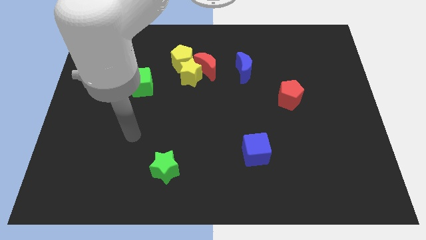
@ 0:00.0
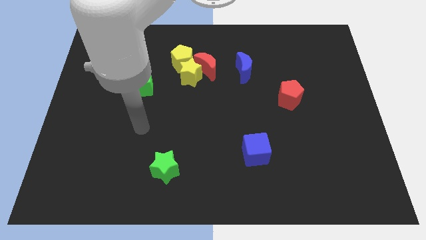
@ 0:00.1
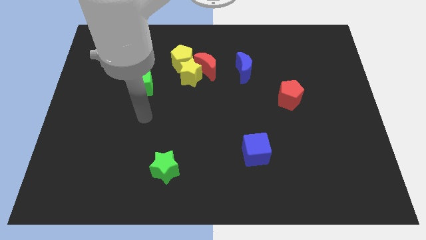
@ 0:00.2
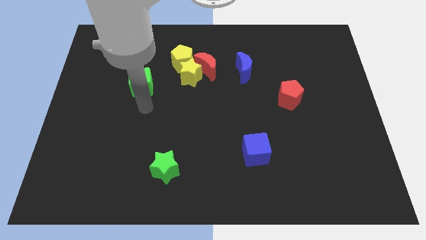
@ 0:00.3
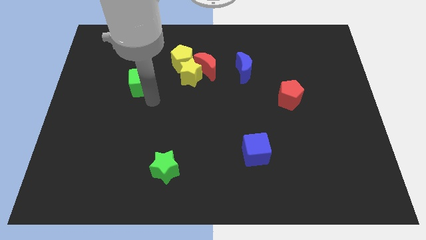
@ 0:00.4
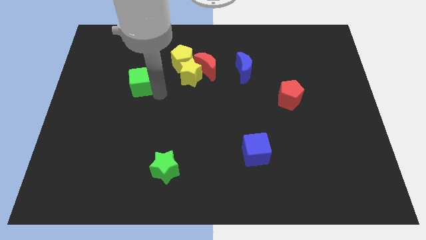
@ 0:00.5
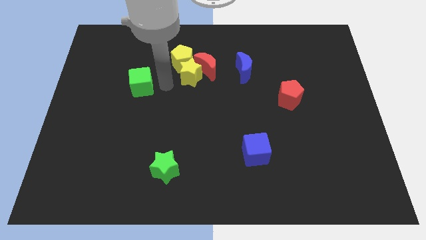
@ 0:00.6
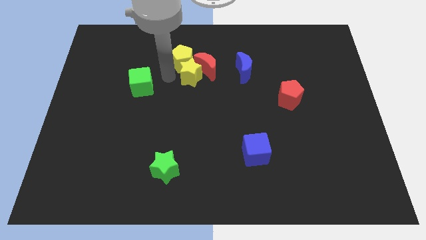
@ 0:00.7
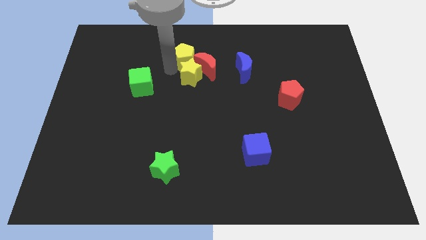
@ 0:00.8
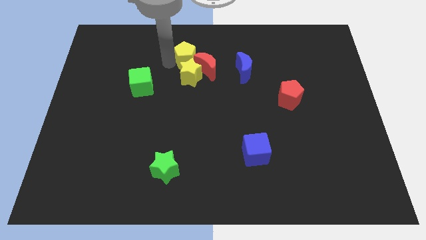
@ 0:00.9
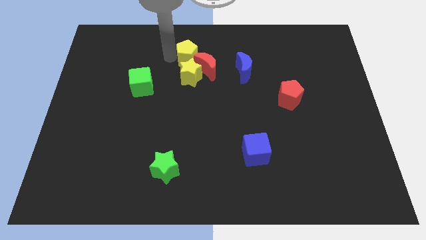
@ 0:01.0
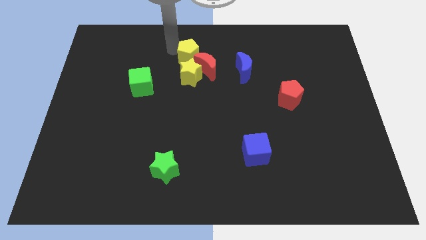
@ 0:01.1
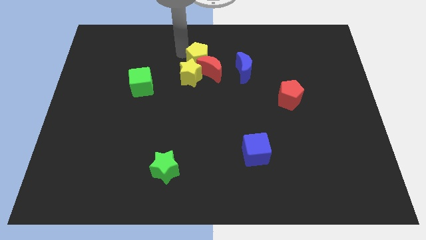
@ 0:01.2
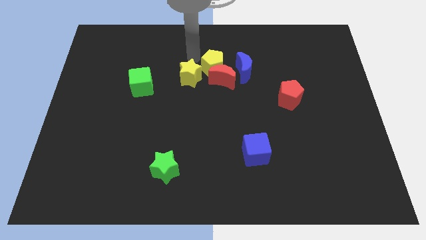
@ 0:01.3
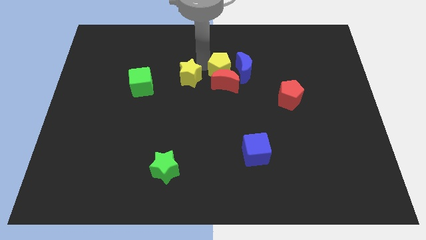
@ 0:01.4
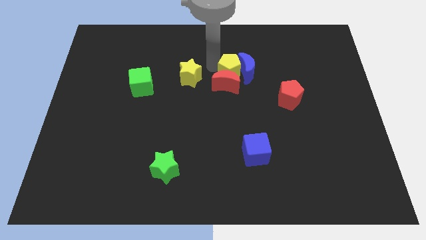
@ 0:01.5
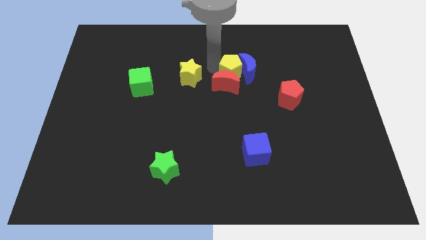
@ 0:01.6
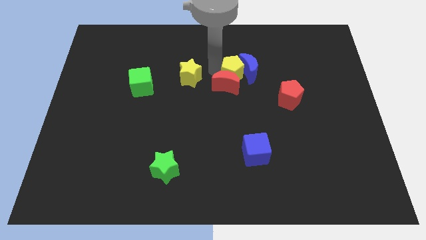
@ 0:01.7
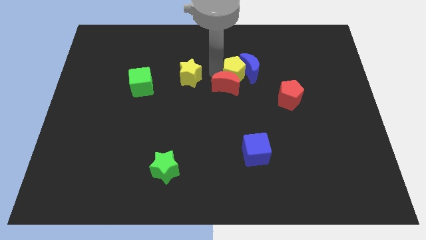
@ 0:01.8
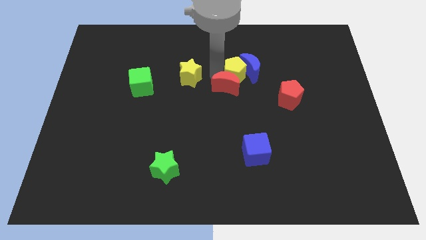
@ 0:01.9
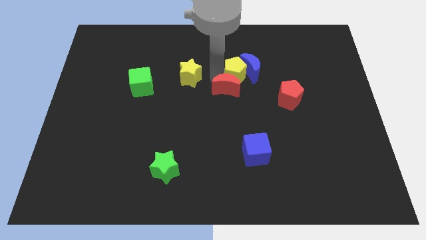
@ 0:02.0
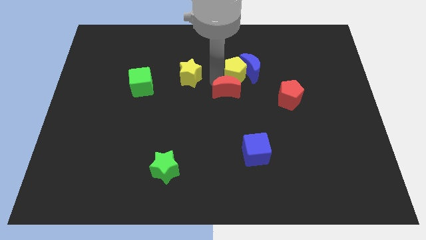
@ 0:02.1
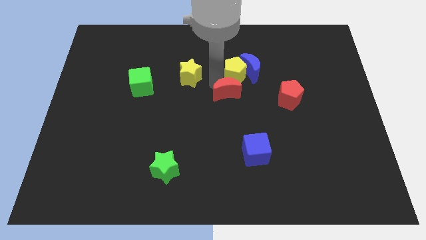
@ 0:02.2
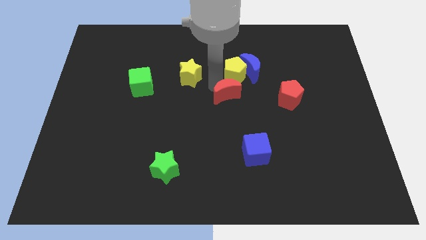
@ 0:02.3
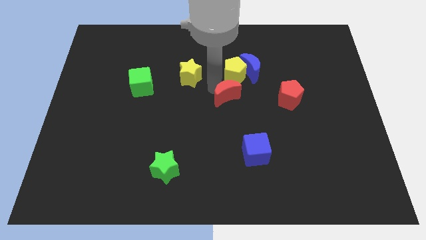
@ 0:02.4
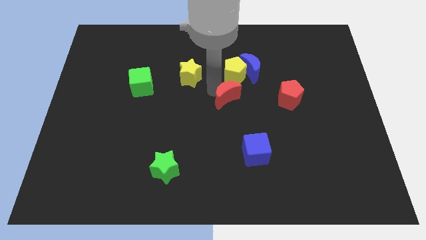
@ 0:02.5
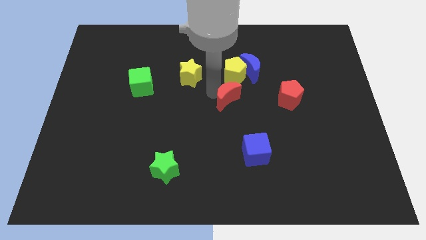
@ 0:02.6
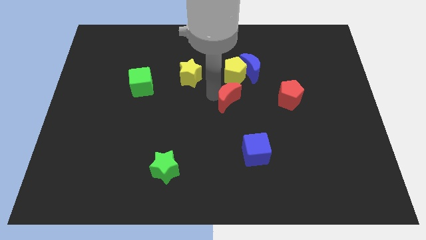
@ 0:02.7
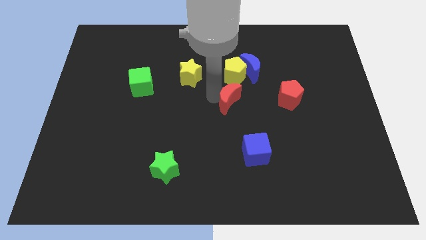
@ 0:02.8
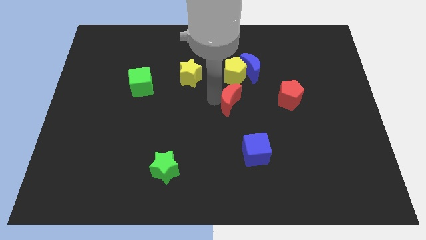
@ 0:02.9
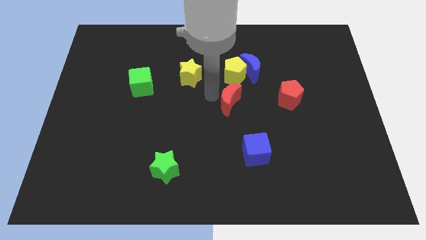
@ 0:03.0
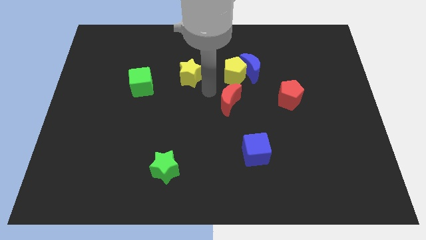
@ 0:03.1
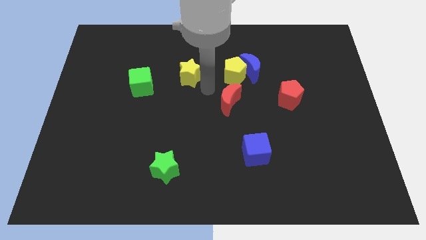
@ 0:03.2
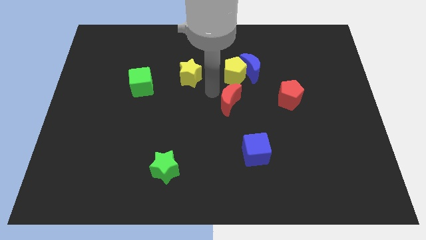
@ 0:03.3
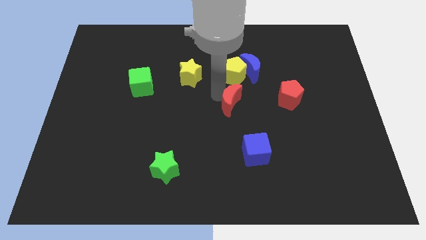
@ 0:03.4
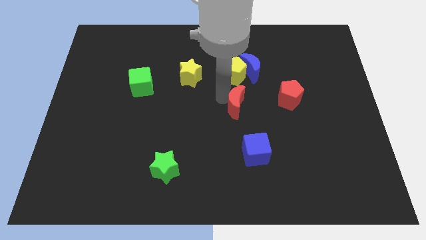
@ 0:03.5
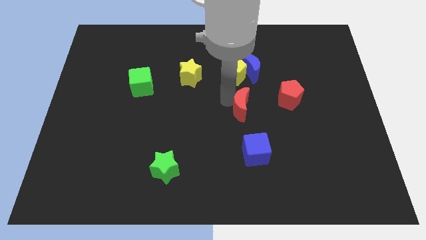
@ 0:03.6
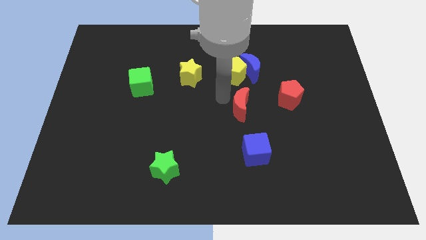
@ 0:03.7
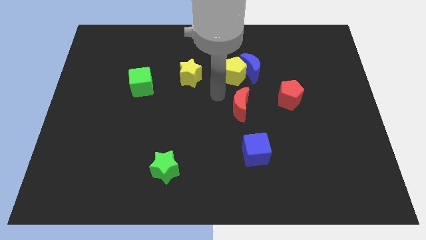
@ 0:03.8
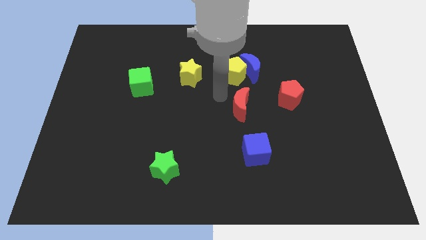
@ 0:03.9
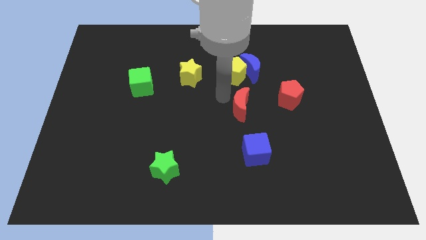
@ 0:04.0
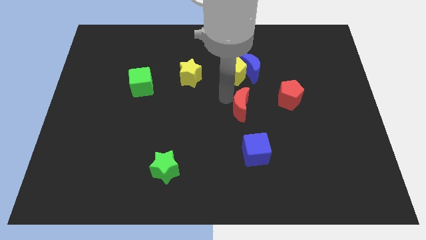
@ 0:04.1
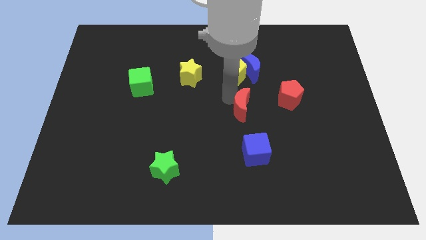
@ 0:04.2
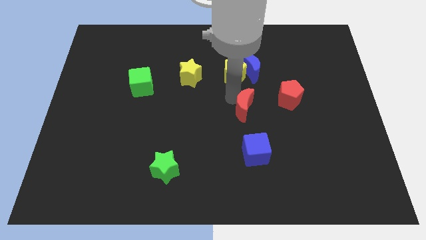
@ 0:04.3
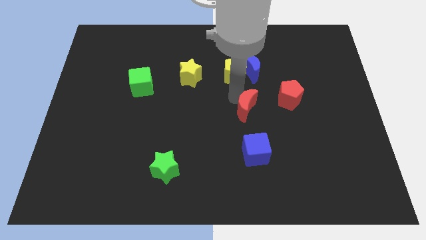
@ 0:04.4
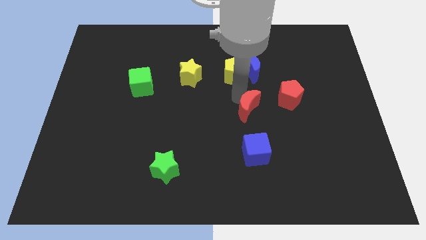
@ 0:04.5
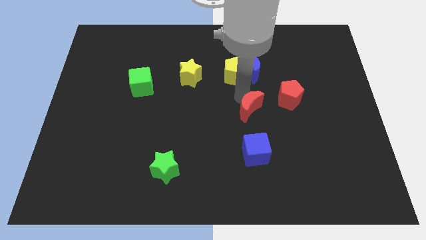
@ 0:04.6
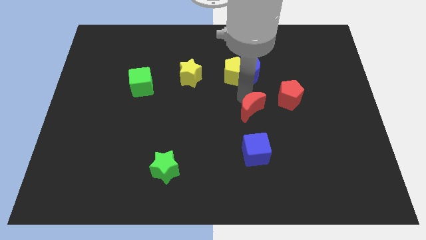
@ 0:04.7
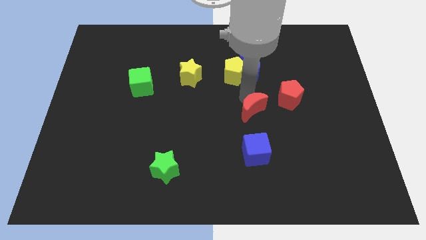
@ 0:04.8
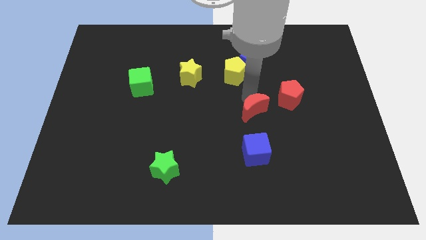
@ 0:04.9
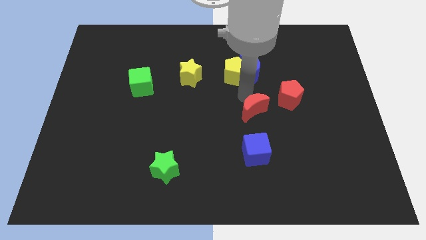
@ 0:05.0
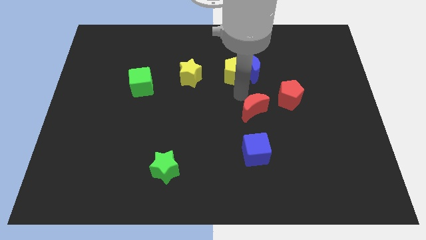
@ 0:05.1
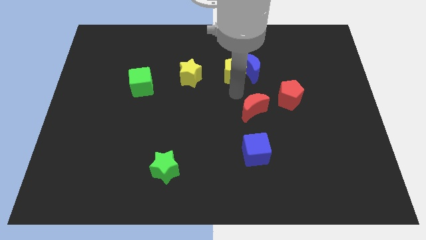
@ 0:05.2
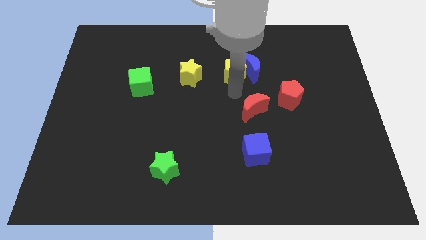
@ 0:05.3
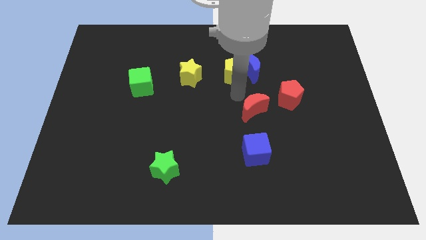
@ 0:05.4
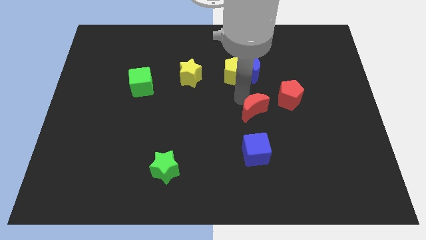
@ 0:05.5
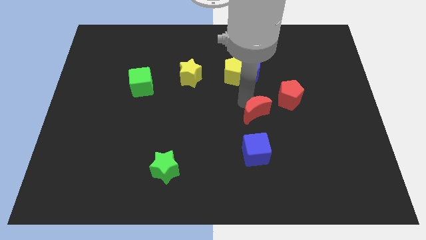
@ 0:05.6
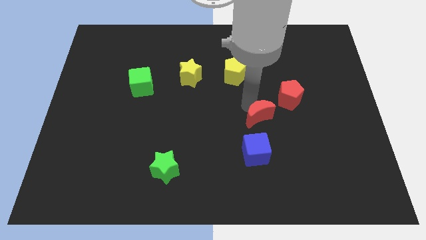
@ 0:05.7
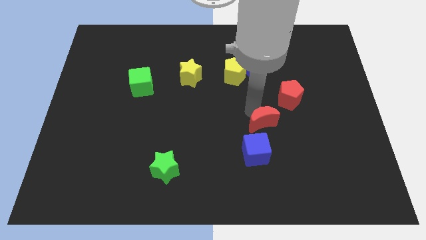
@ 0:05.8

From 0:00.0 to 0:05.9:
slide the red moon down and right diagonally

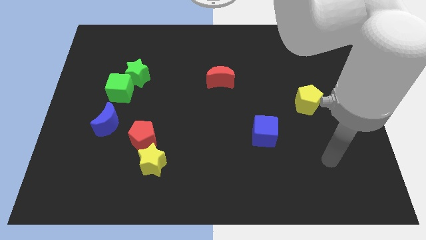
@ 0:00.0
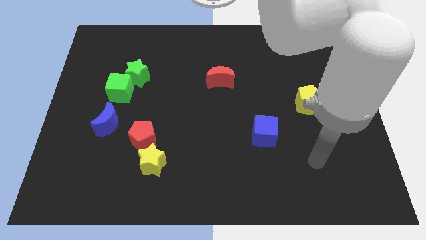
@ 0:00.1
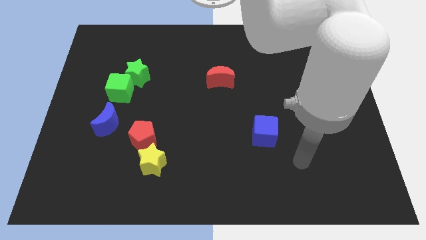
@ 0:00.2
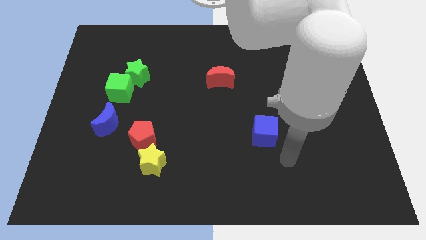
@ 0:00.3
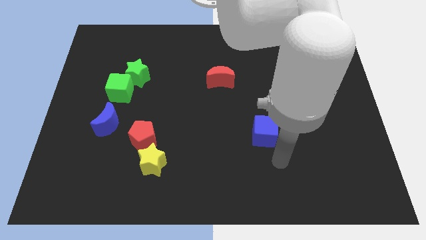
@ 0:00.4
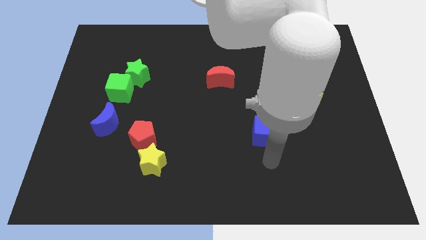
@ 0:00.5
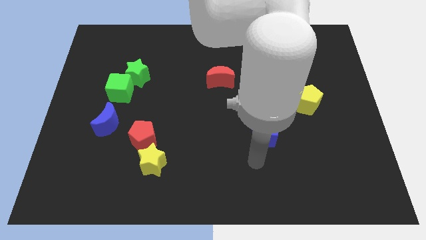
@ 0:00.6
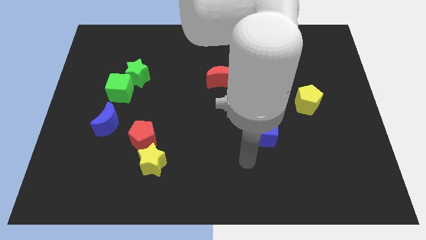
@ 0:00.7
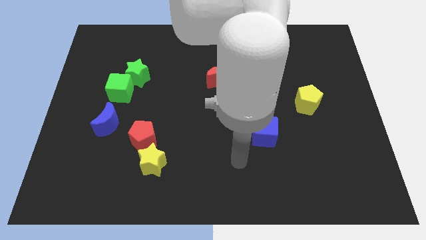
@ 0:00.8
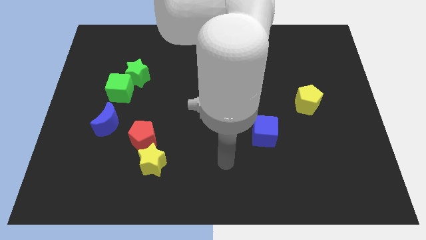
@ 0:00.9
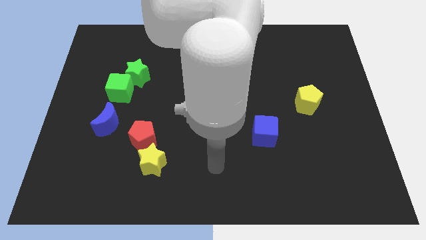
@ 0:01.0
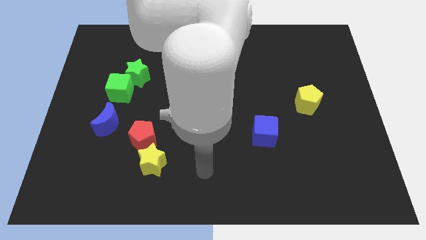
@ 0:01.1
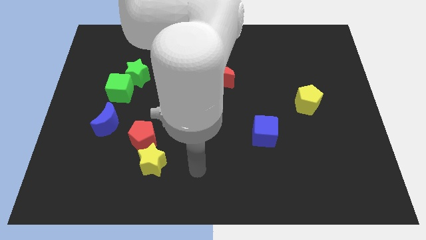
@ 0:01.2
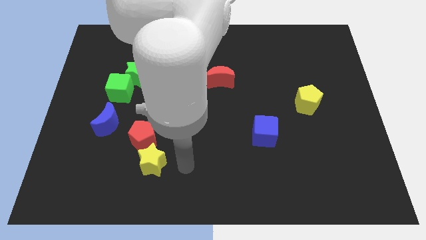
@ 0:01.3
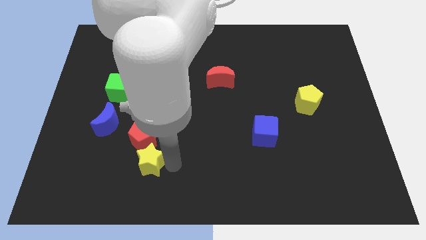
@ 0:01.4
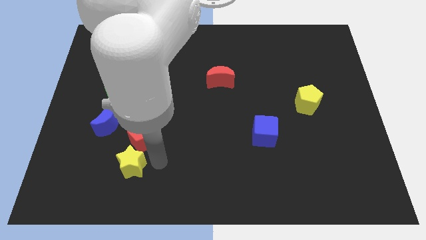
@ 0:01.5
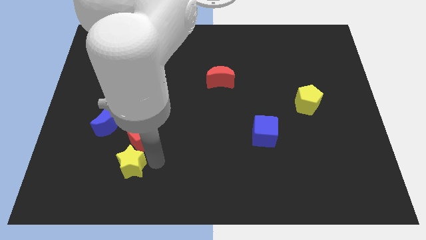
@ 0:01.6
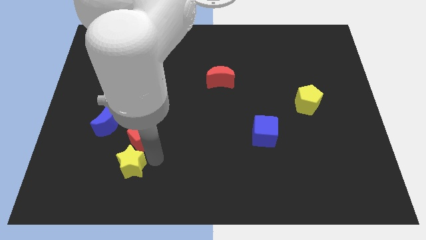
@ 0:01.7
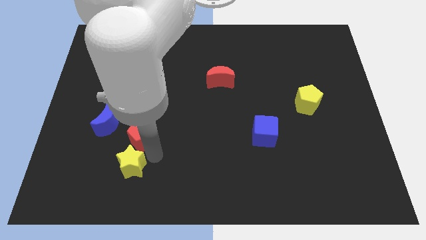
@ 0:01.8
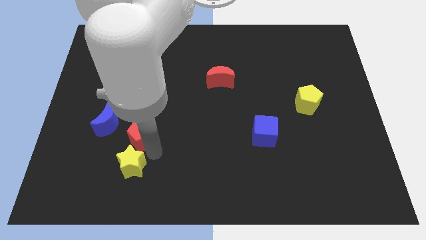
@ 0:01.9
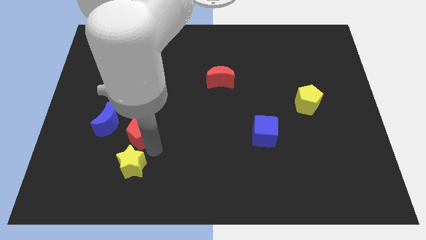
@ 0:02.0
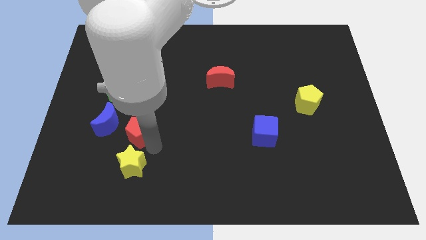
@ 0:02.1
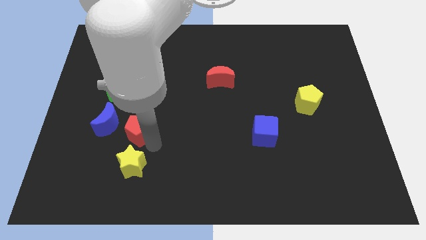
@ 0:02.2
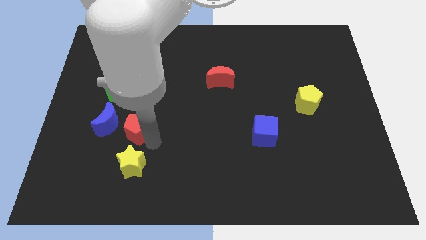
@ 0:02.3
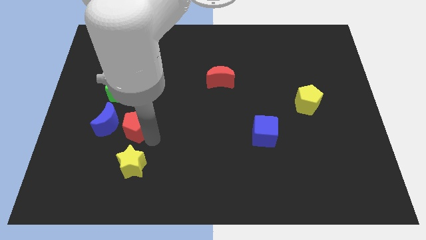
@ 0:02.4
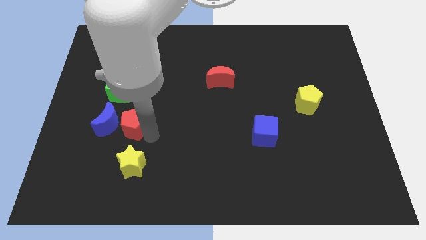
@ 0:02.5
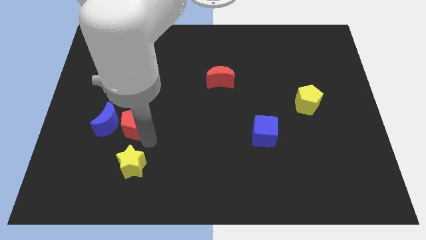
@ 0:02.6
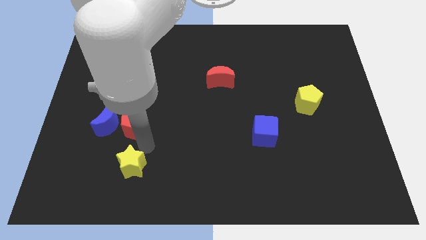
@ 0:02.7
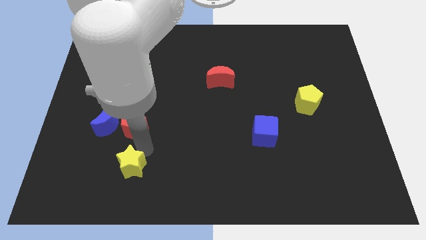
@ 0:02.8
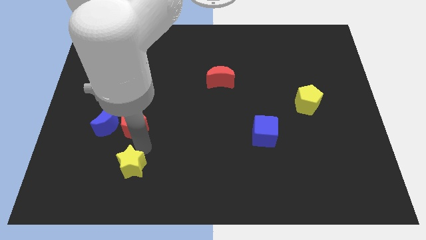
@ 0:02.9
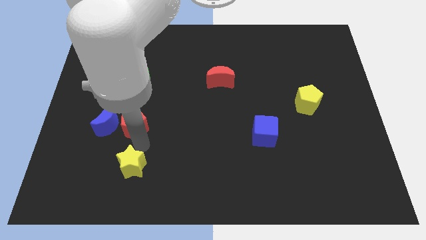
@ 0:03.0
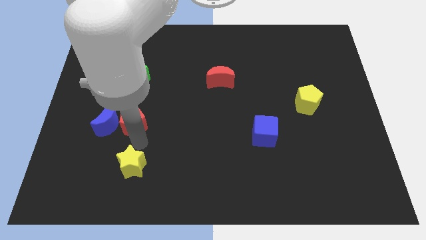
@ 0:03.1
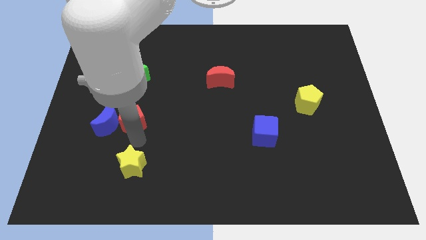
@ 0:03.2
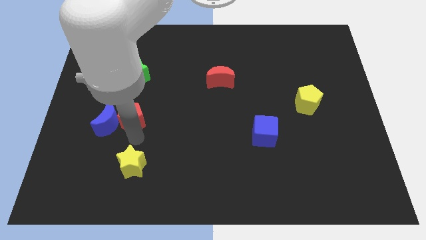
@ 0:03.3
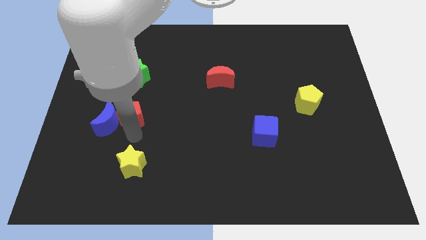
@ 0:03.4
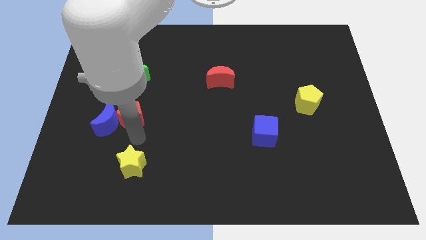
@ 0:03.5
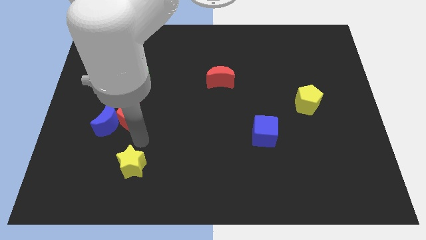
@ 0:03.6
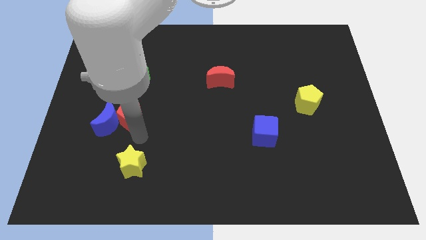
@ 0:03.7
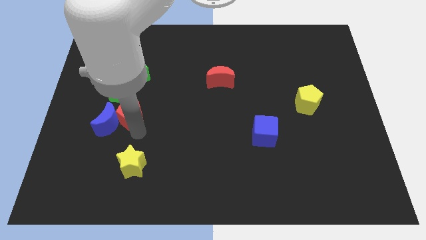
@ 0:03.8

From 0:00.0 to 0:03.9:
push the red pentagon up and to the left a bit
